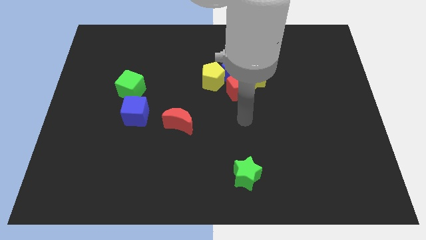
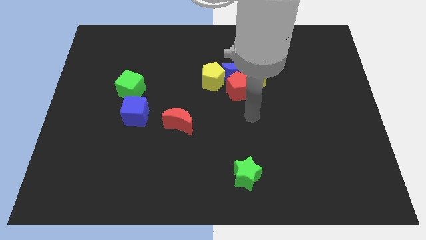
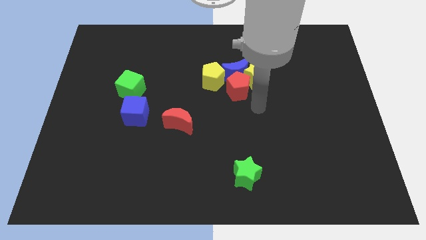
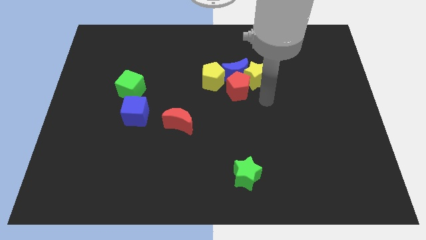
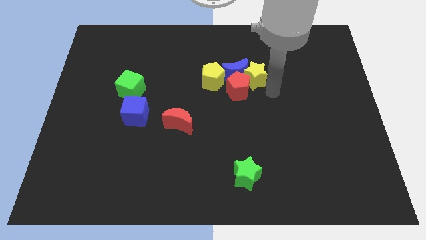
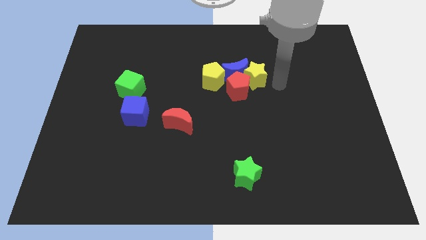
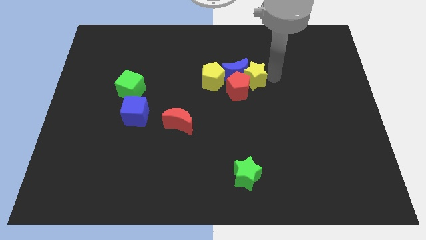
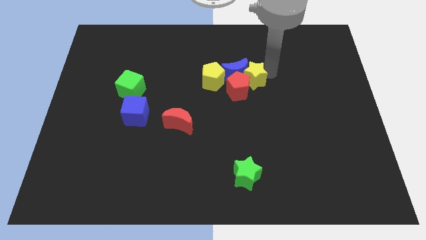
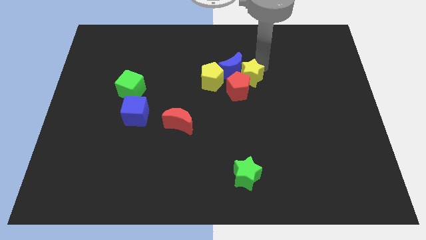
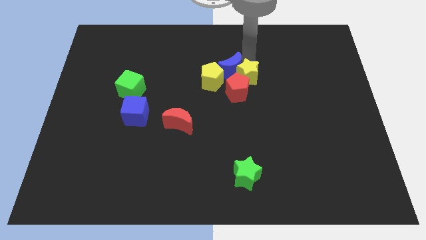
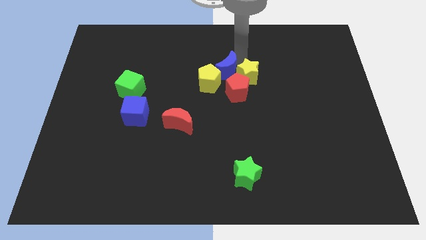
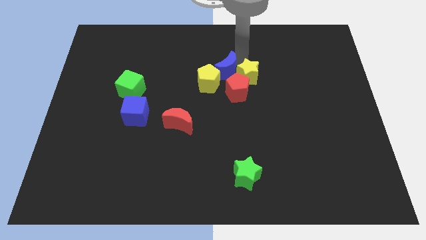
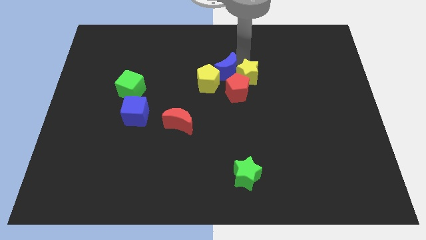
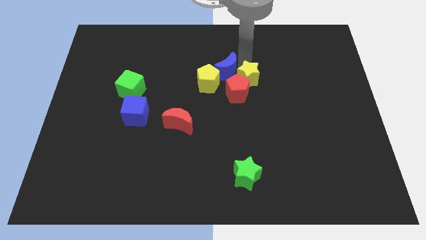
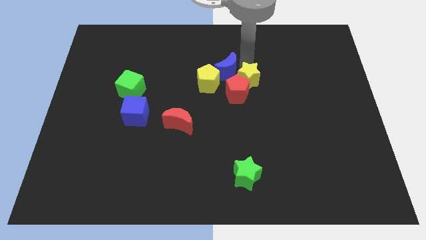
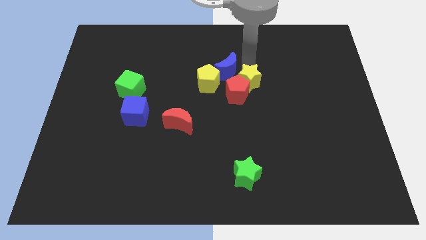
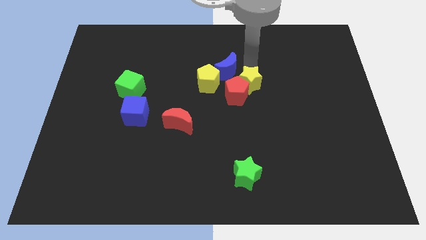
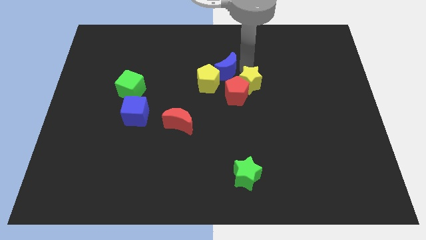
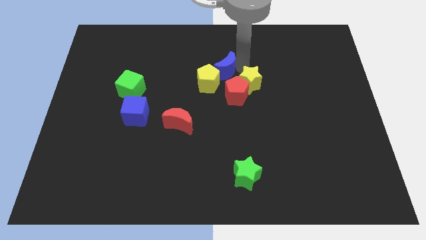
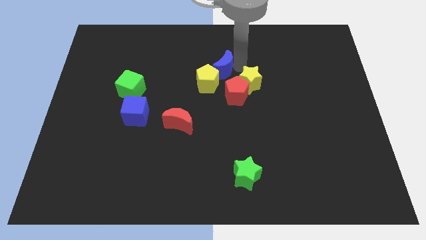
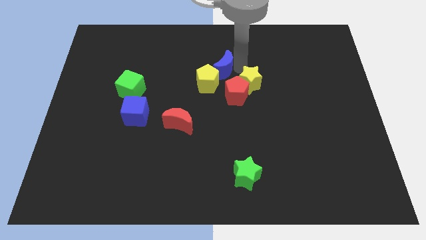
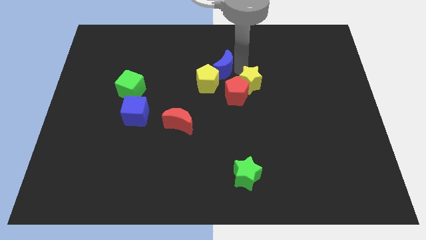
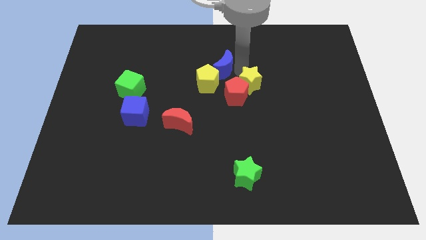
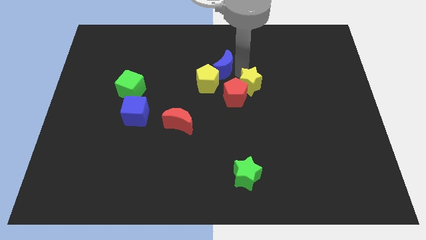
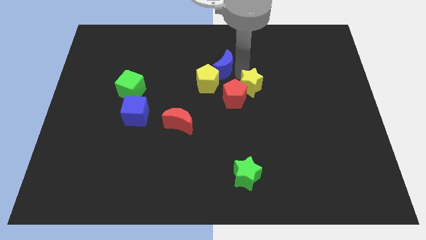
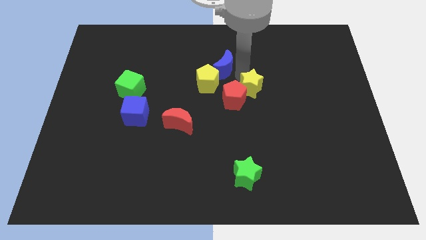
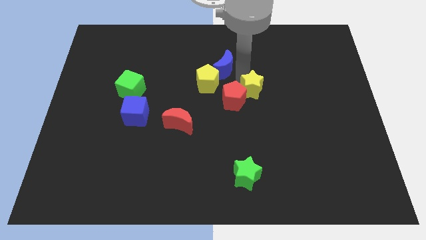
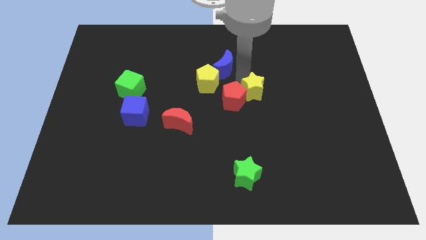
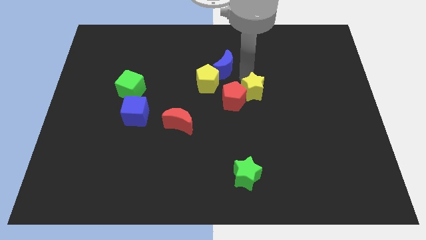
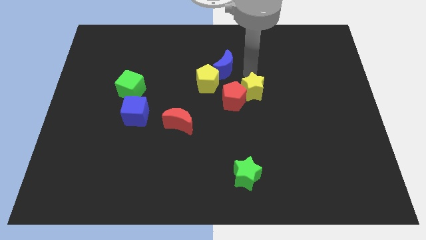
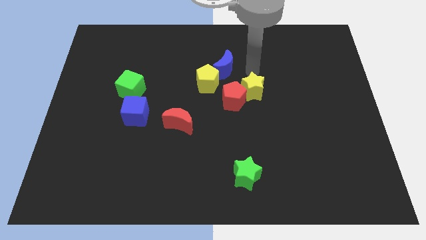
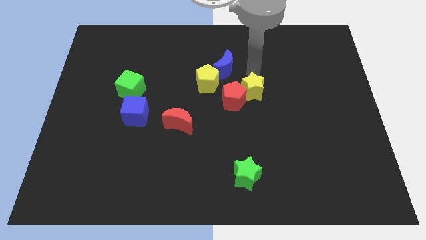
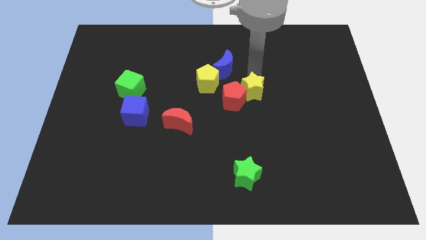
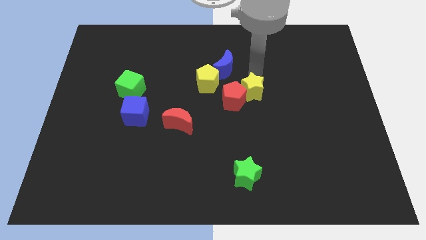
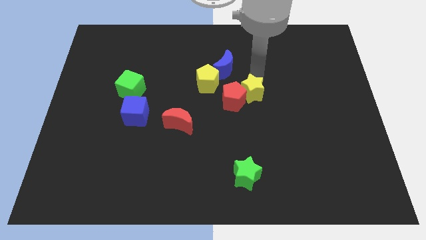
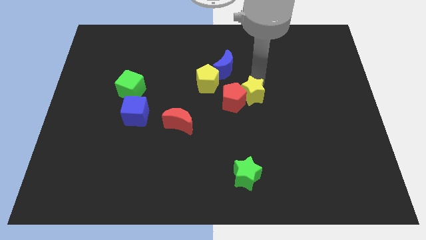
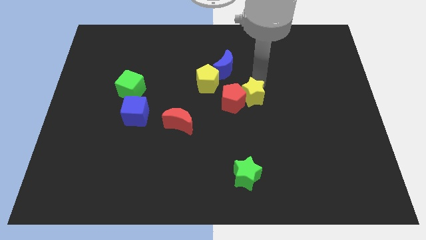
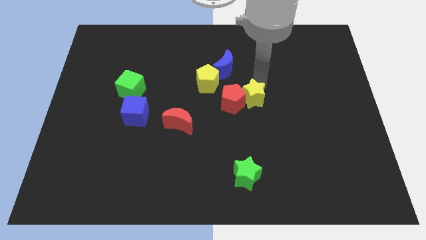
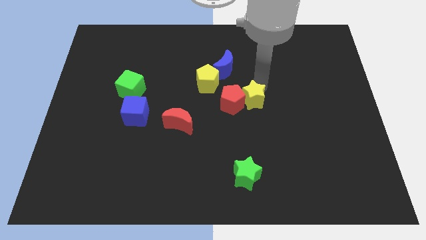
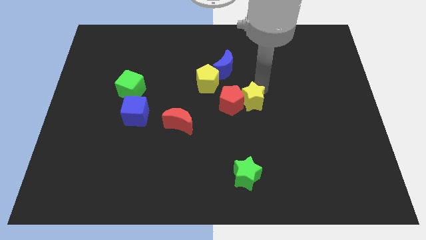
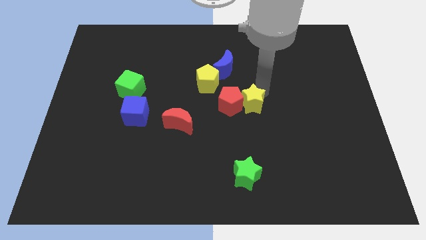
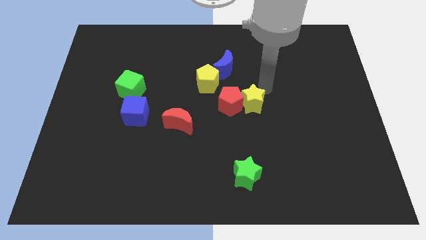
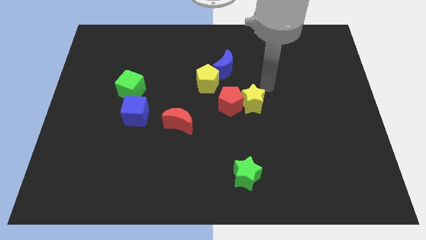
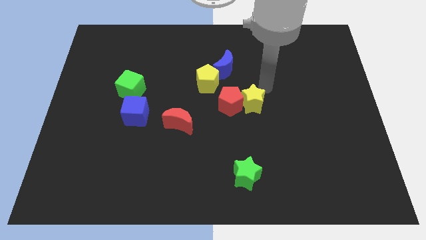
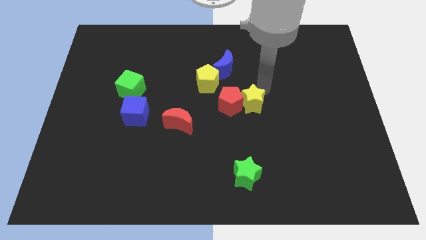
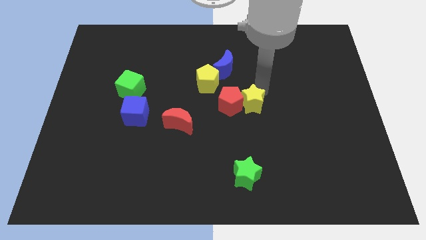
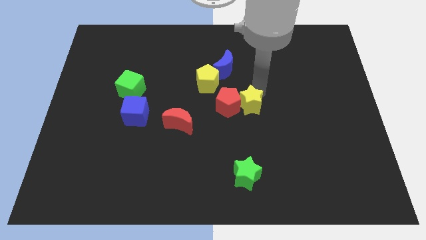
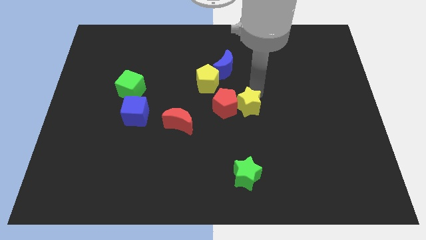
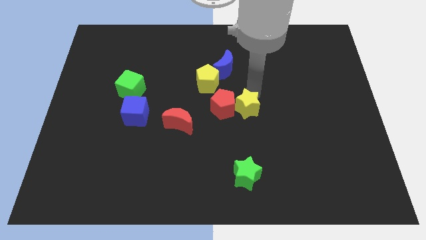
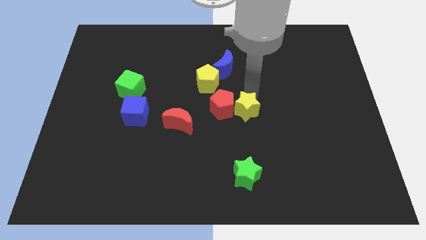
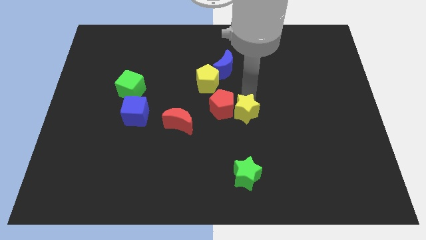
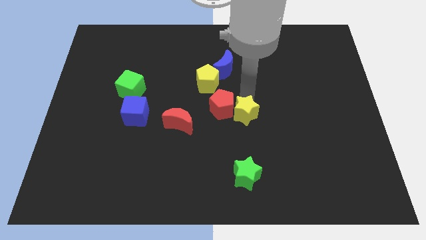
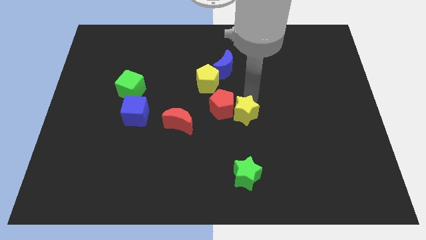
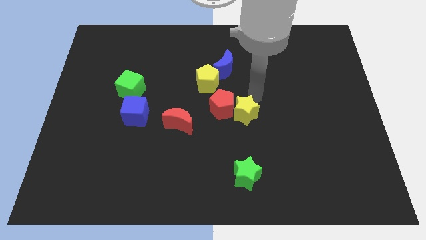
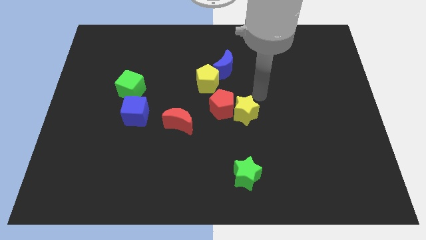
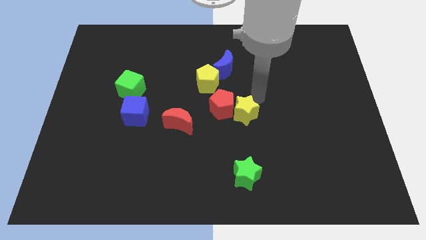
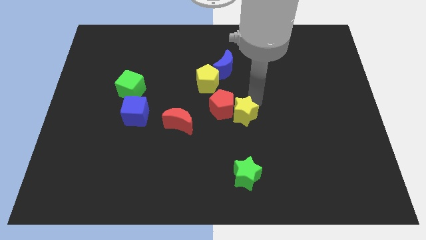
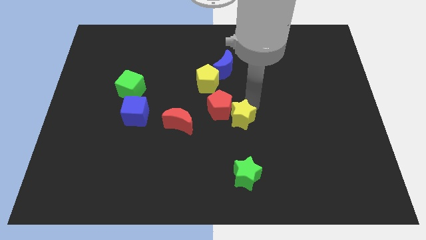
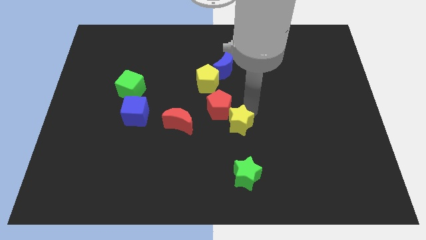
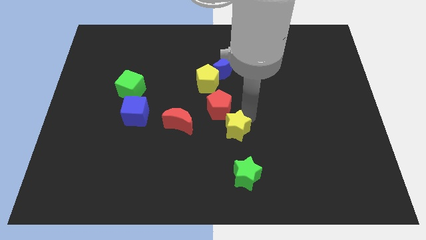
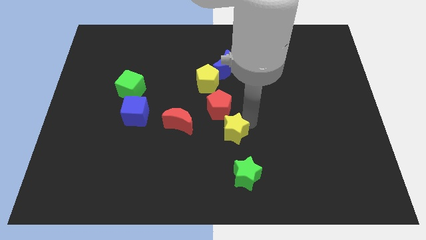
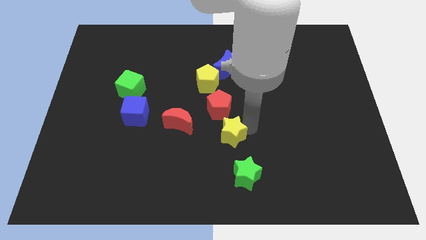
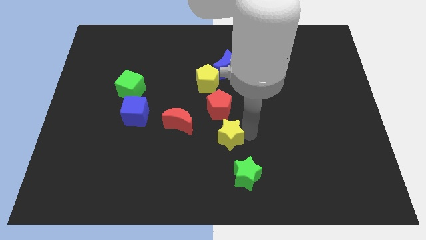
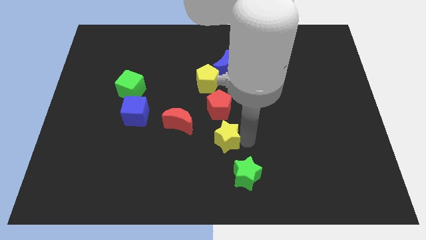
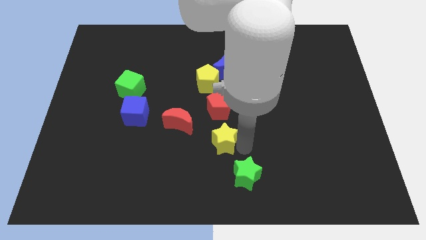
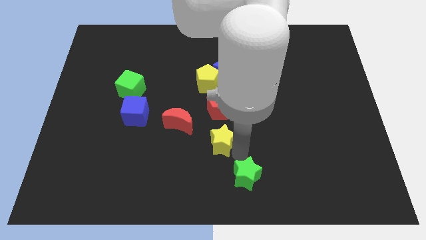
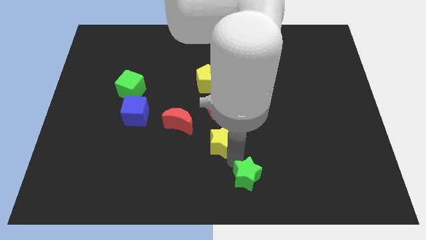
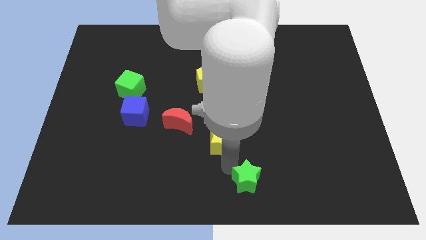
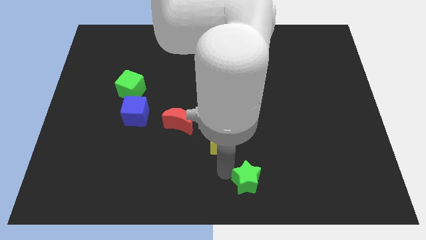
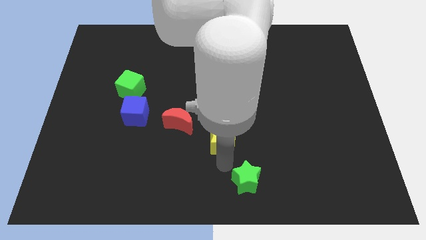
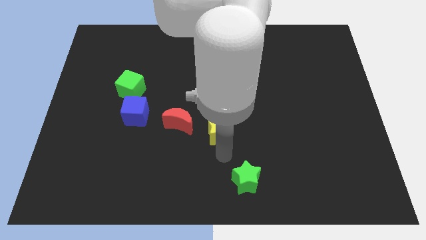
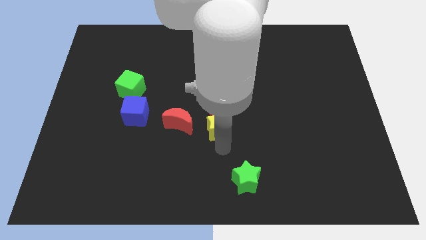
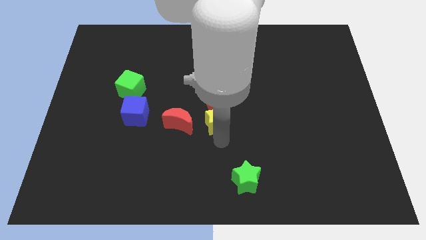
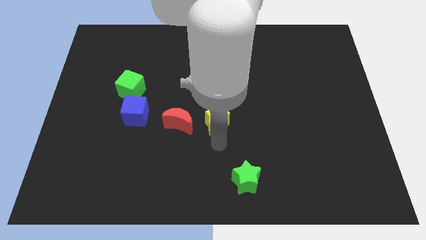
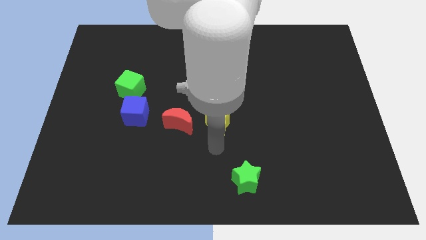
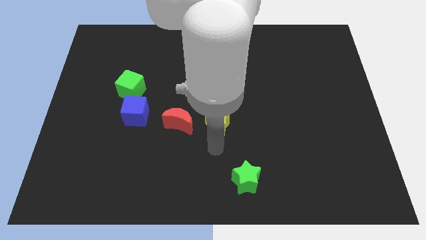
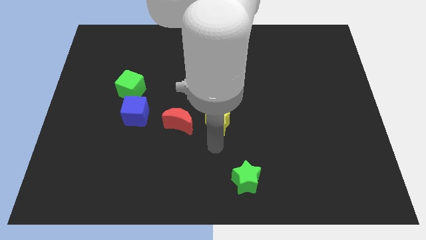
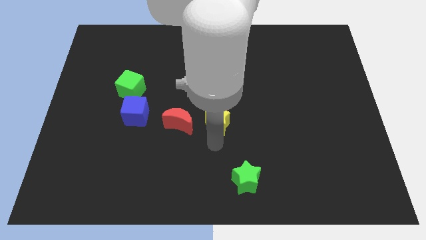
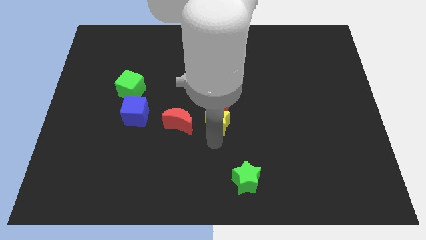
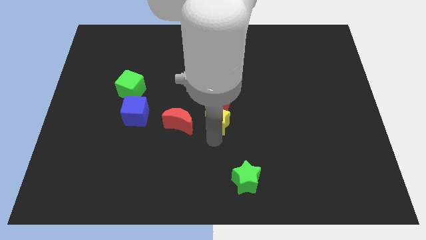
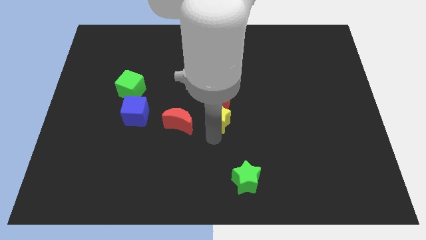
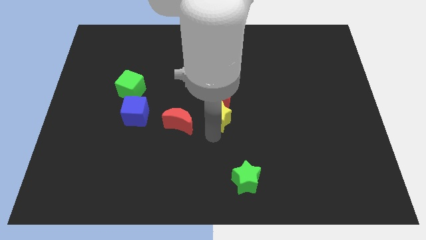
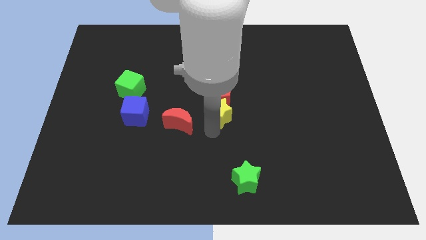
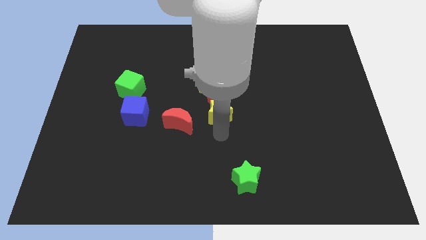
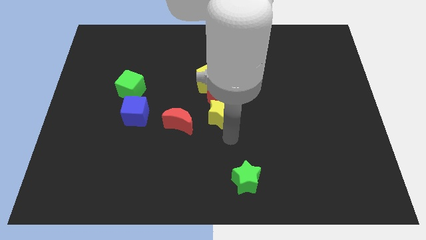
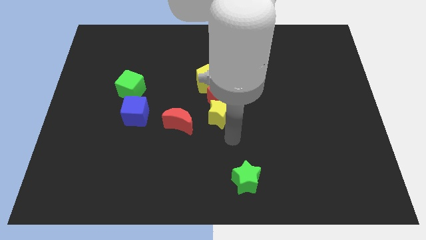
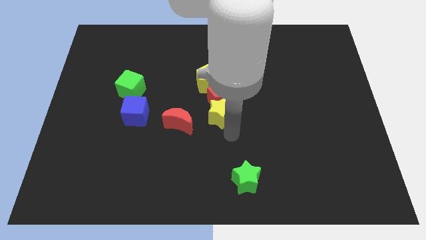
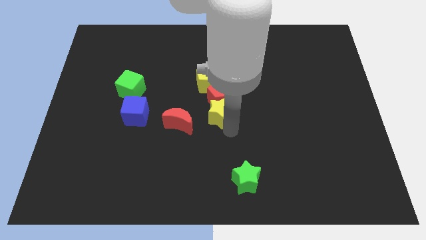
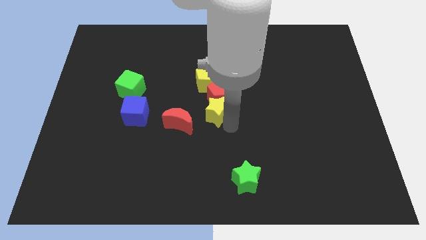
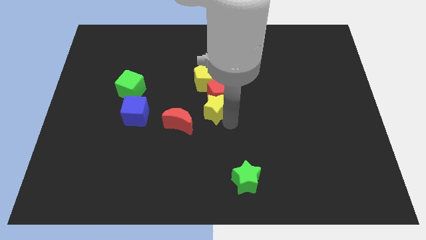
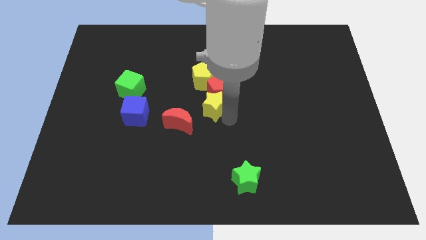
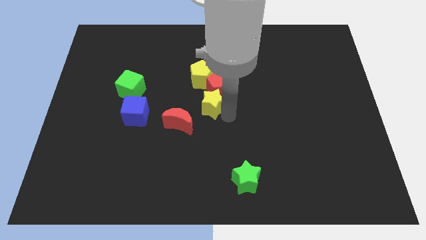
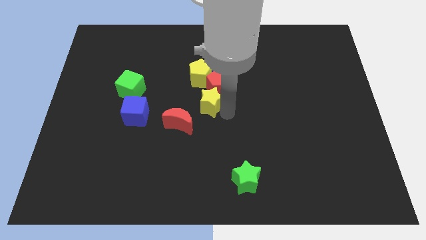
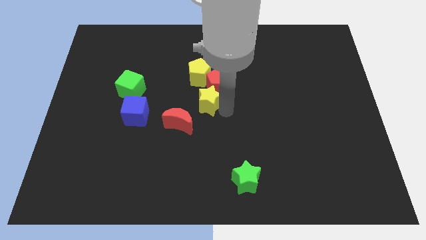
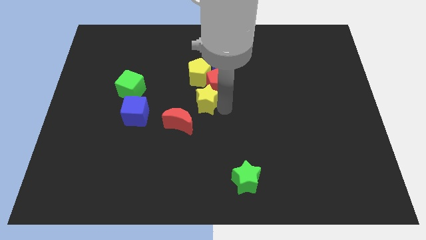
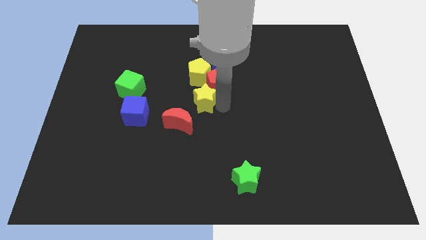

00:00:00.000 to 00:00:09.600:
slide the yellow star diagonally down and to the left of the blue moon
